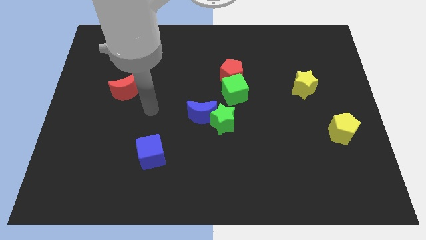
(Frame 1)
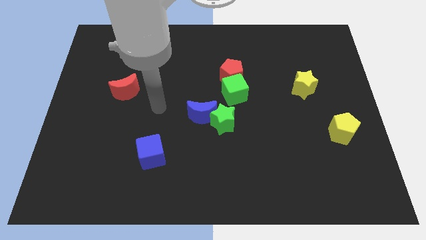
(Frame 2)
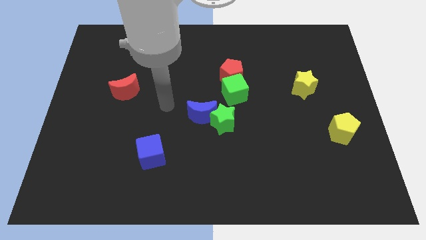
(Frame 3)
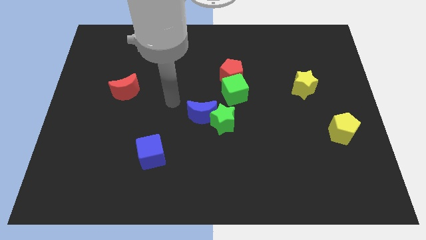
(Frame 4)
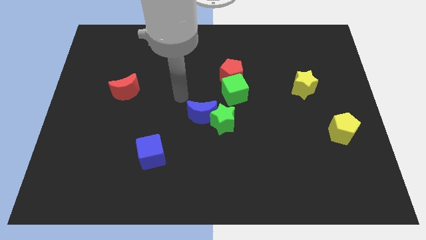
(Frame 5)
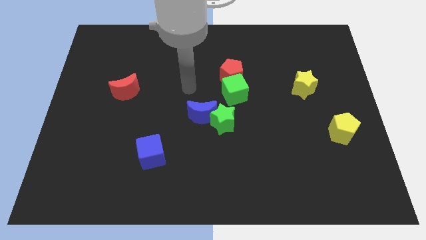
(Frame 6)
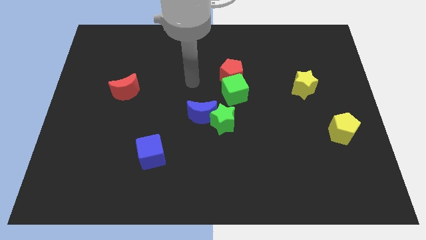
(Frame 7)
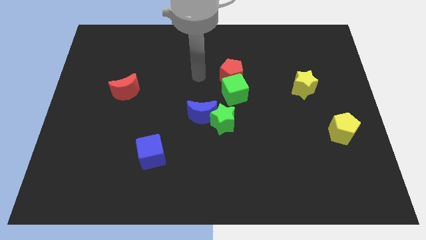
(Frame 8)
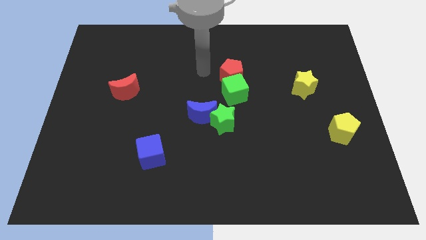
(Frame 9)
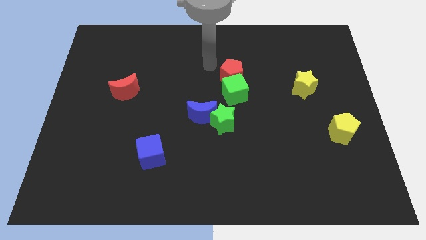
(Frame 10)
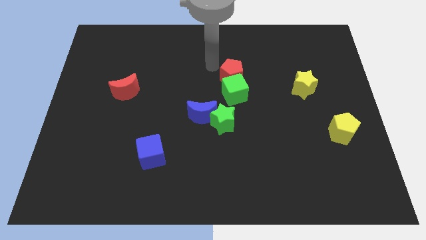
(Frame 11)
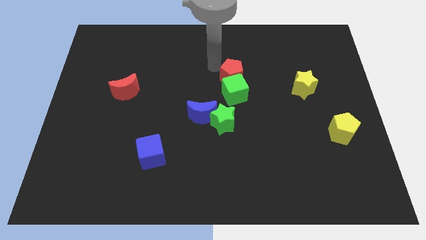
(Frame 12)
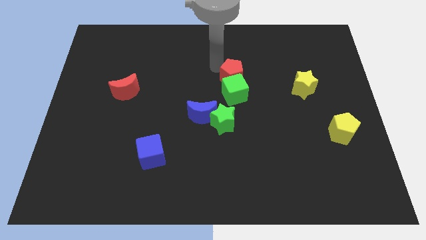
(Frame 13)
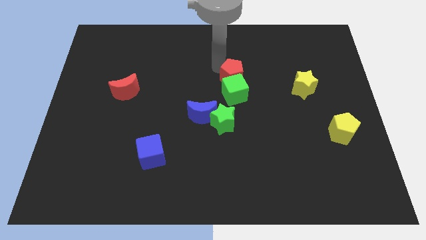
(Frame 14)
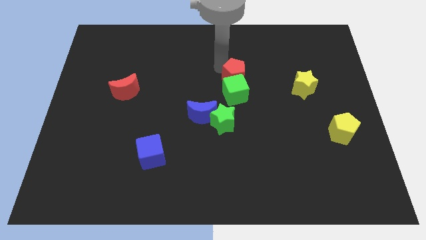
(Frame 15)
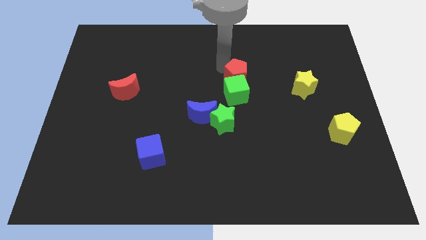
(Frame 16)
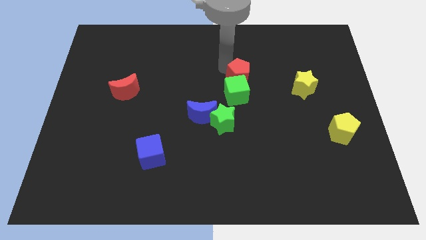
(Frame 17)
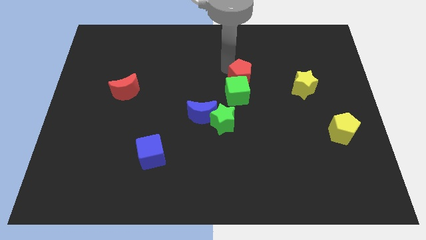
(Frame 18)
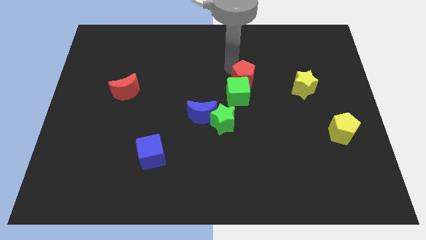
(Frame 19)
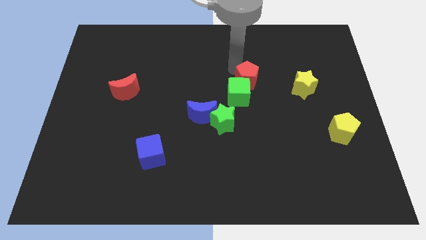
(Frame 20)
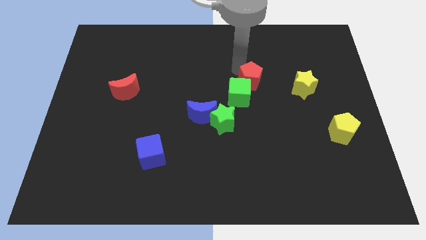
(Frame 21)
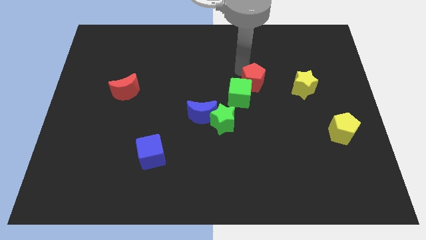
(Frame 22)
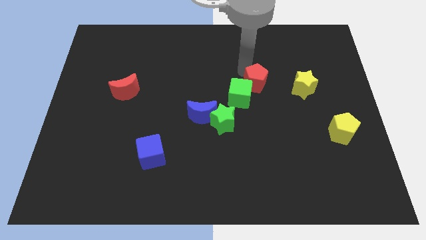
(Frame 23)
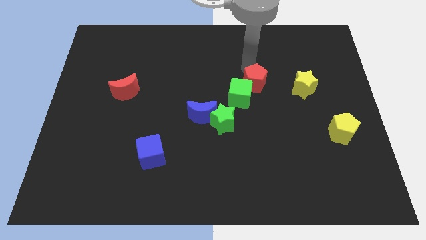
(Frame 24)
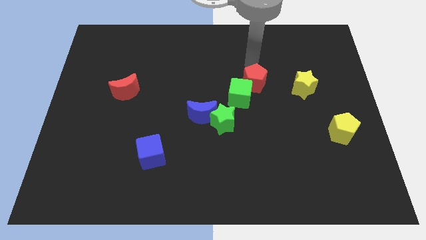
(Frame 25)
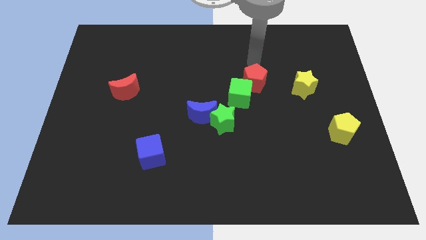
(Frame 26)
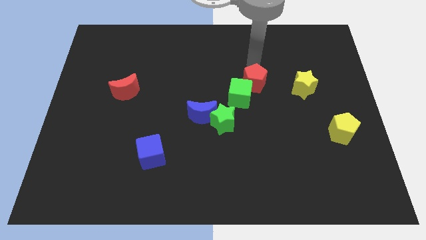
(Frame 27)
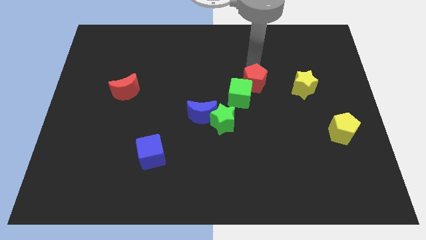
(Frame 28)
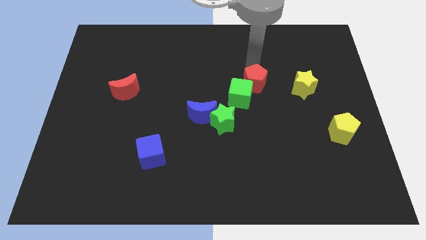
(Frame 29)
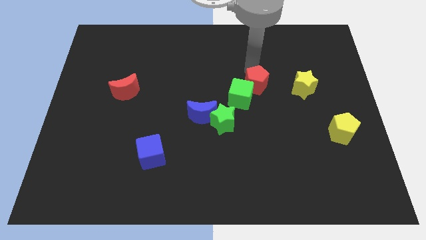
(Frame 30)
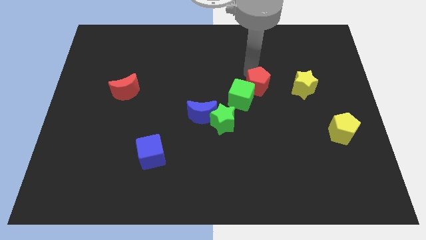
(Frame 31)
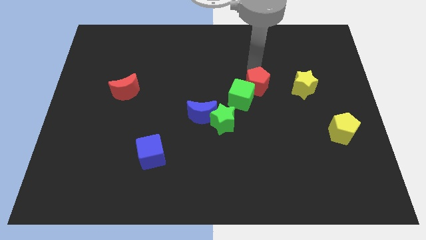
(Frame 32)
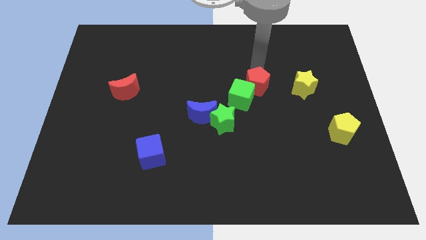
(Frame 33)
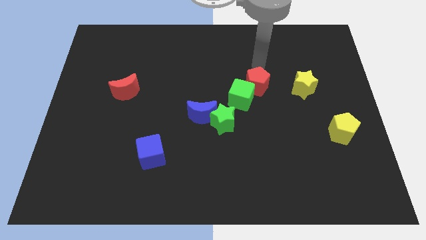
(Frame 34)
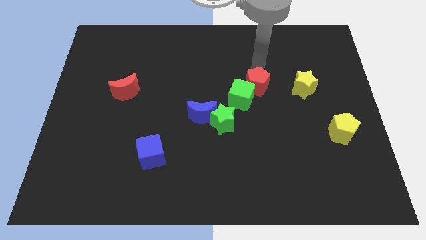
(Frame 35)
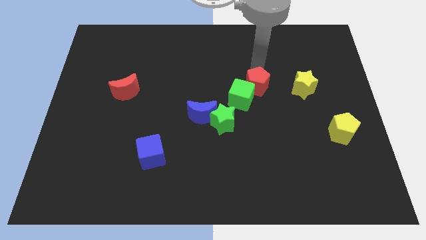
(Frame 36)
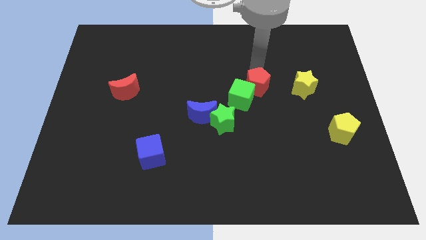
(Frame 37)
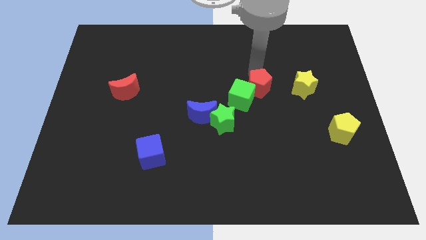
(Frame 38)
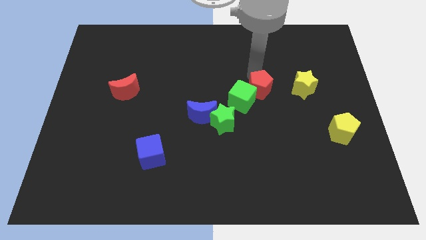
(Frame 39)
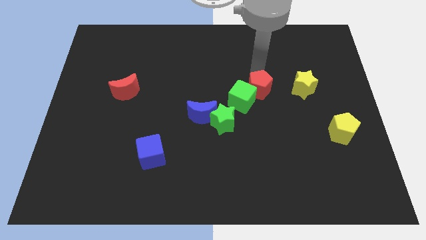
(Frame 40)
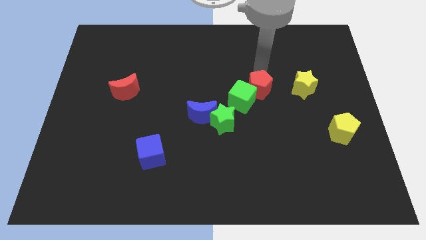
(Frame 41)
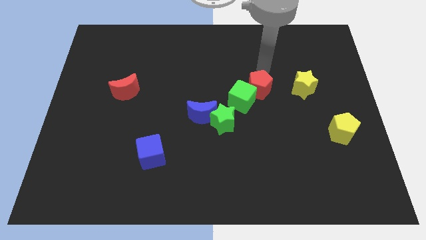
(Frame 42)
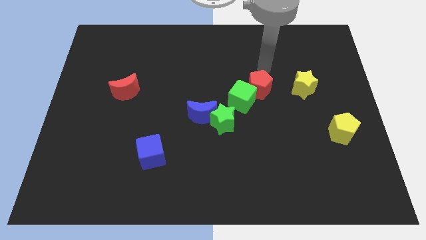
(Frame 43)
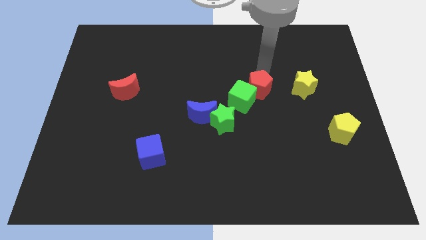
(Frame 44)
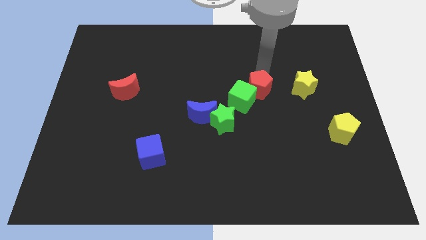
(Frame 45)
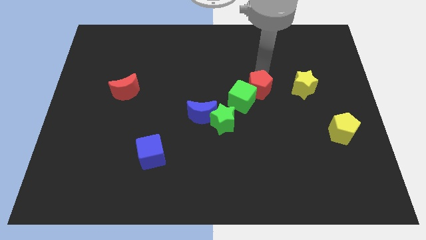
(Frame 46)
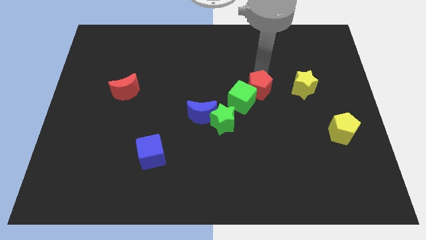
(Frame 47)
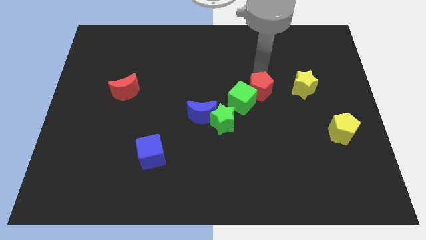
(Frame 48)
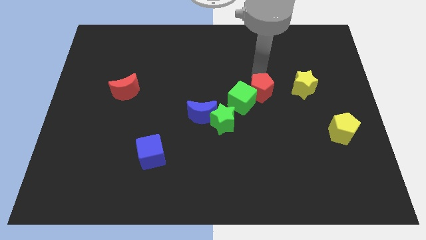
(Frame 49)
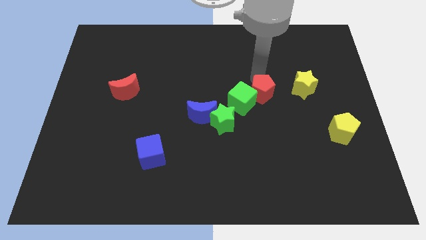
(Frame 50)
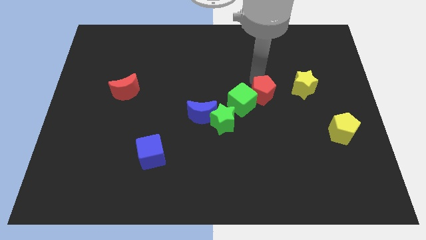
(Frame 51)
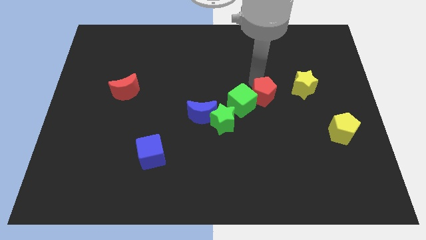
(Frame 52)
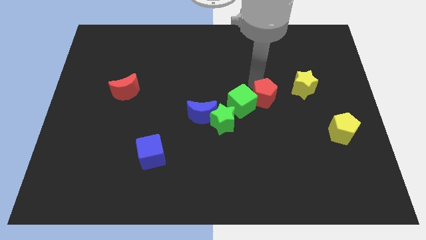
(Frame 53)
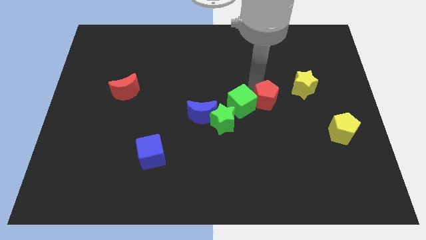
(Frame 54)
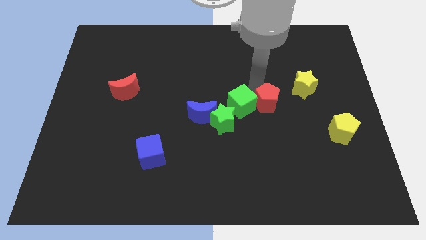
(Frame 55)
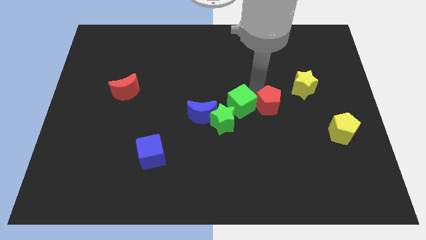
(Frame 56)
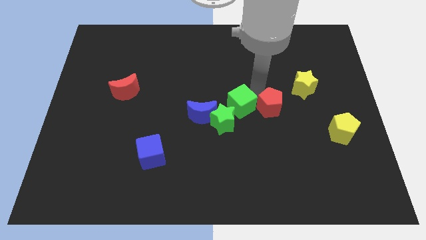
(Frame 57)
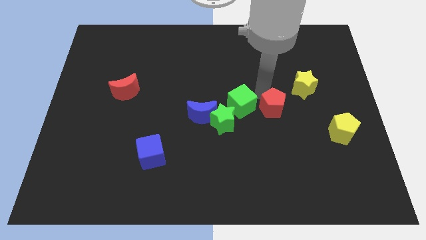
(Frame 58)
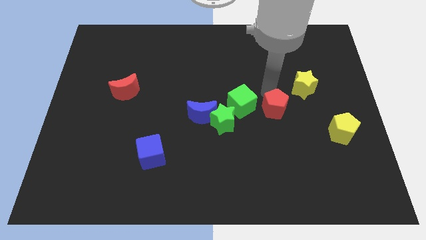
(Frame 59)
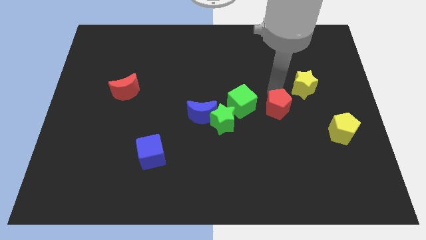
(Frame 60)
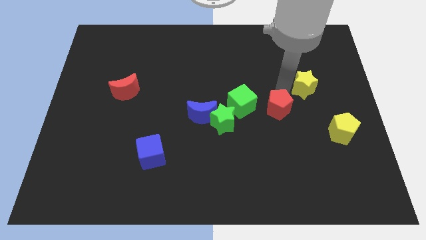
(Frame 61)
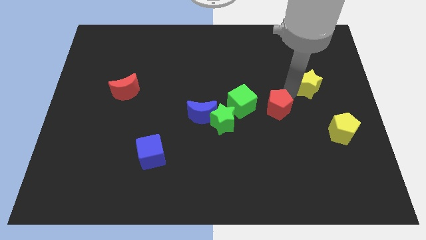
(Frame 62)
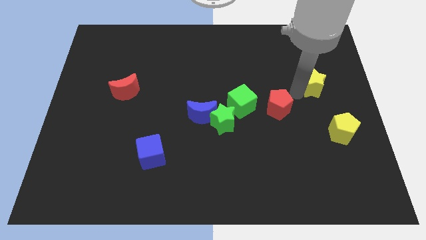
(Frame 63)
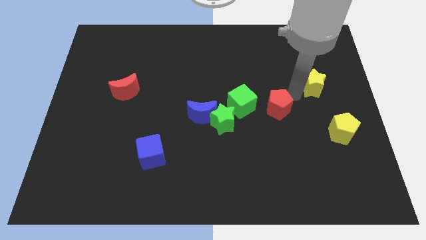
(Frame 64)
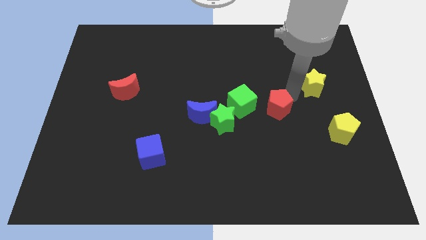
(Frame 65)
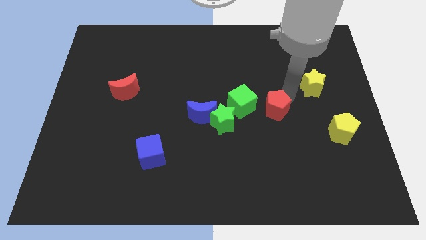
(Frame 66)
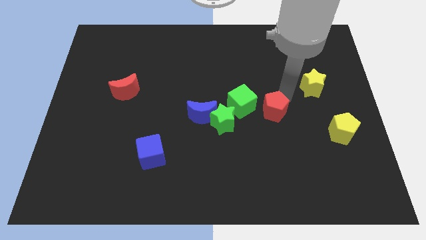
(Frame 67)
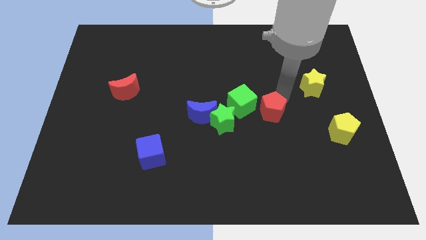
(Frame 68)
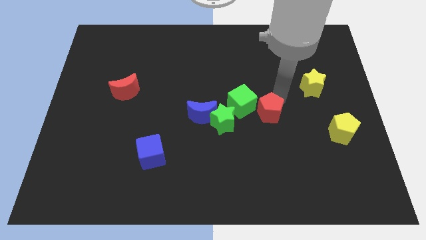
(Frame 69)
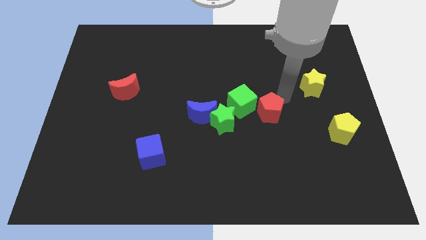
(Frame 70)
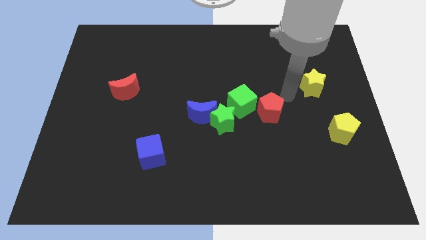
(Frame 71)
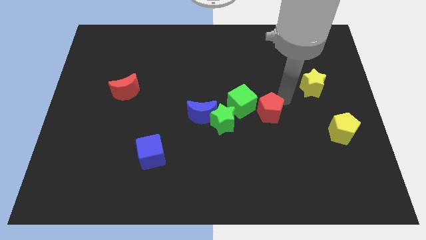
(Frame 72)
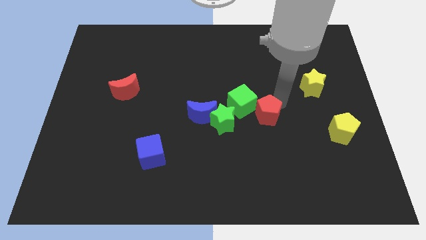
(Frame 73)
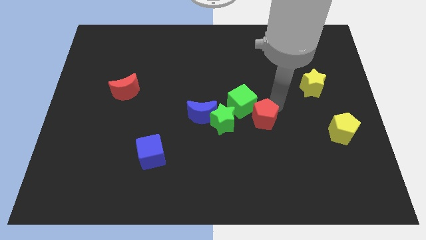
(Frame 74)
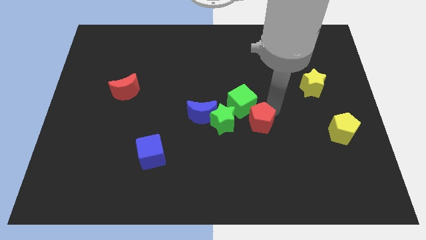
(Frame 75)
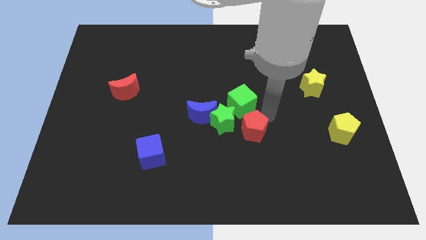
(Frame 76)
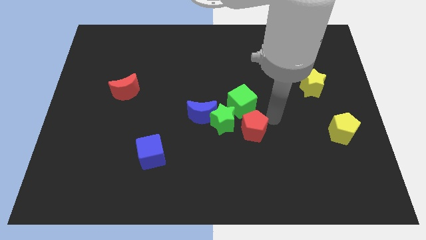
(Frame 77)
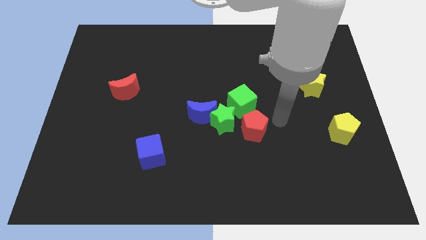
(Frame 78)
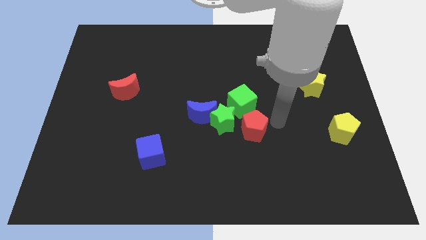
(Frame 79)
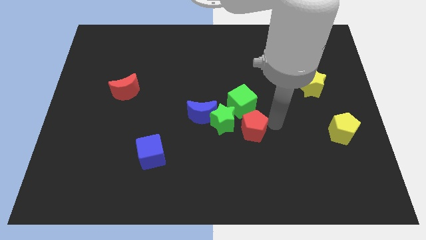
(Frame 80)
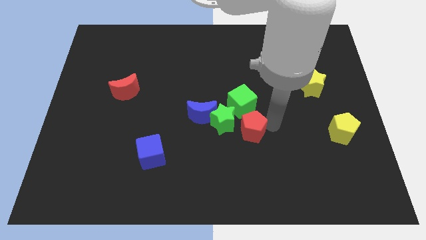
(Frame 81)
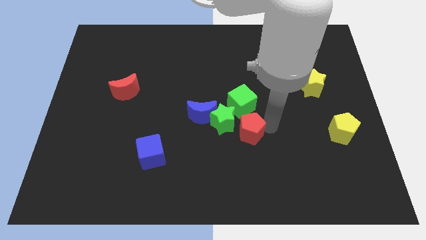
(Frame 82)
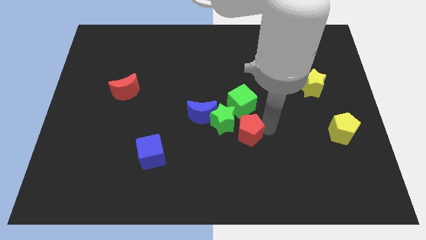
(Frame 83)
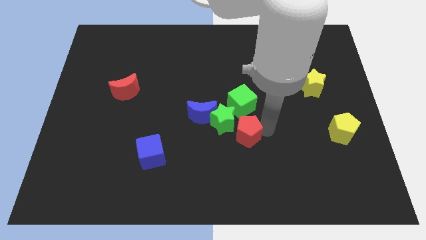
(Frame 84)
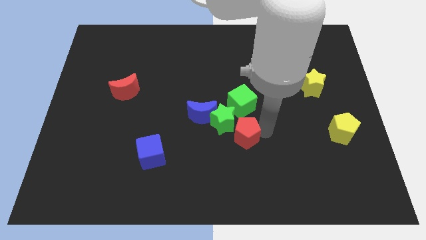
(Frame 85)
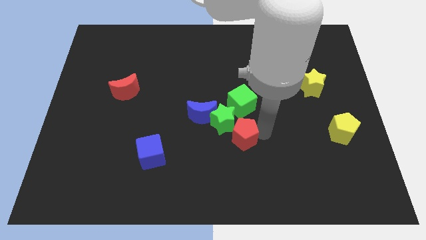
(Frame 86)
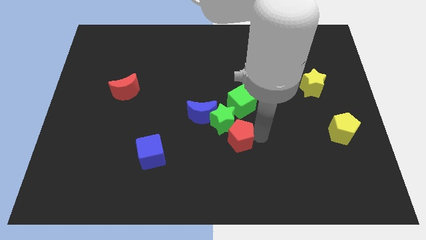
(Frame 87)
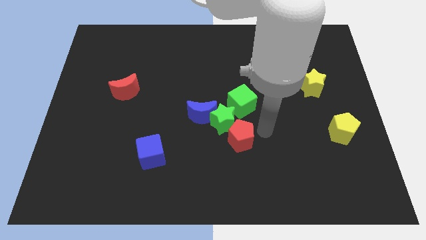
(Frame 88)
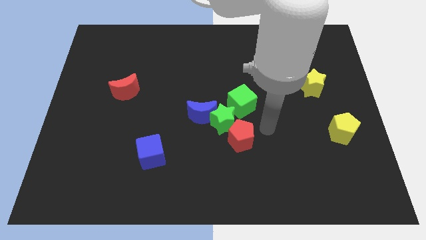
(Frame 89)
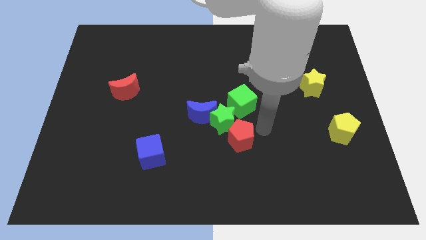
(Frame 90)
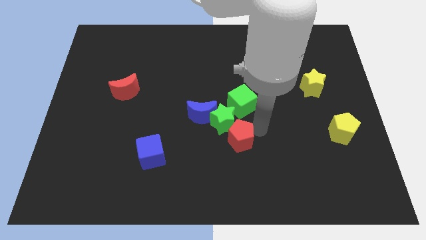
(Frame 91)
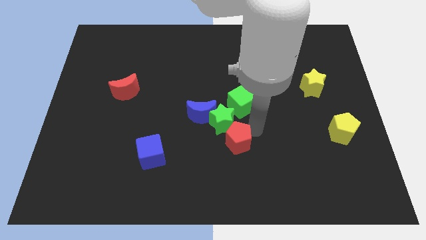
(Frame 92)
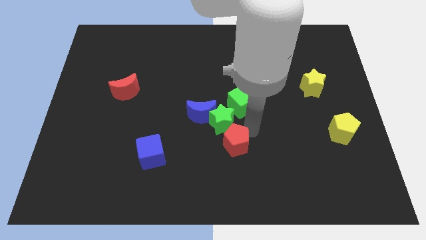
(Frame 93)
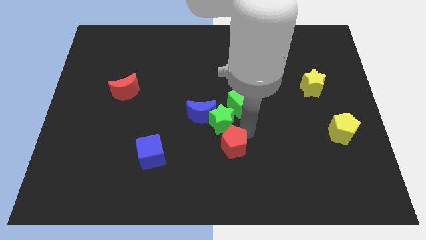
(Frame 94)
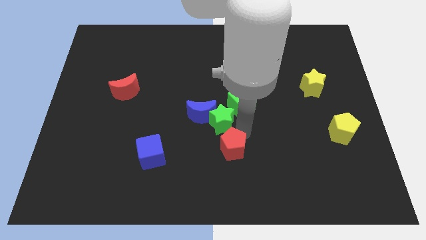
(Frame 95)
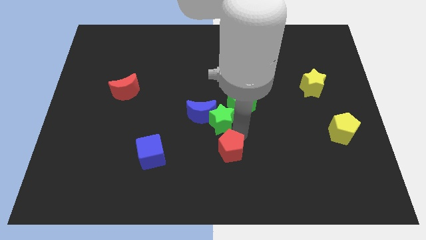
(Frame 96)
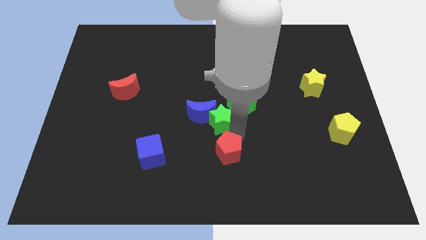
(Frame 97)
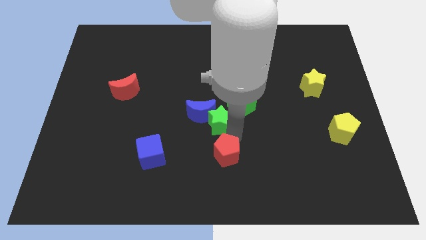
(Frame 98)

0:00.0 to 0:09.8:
move the red pentagon just right of the blue cube
